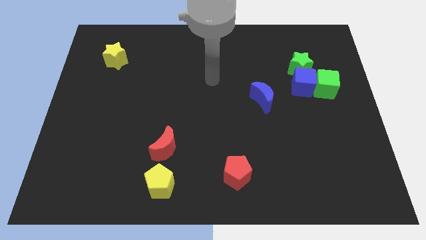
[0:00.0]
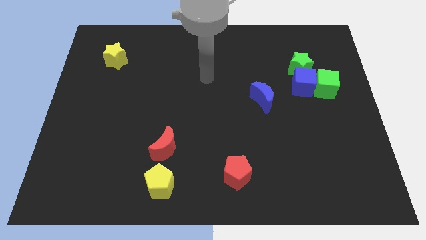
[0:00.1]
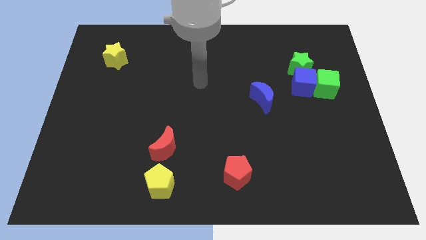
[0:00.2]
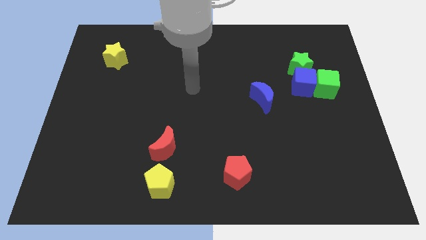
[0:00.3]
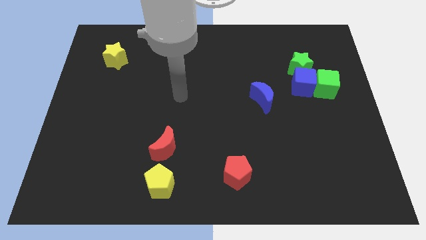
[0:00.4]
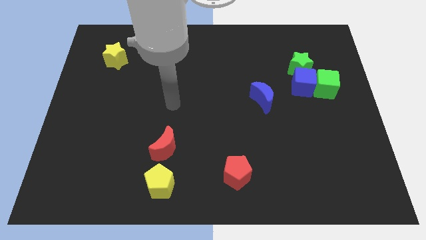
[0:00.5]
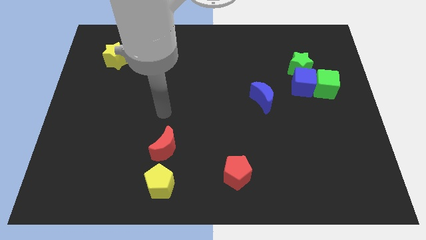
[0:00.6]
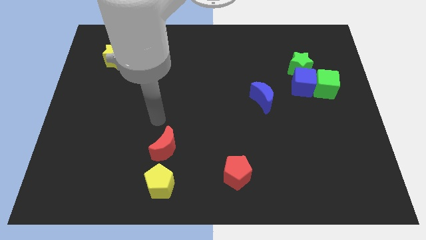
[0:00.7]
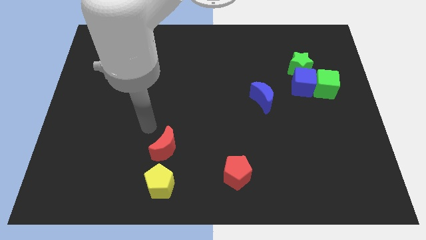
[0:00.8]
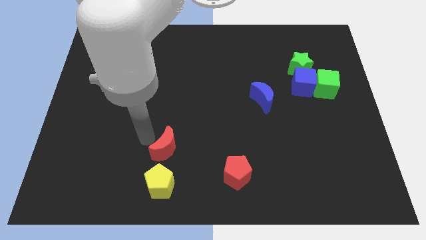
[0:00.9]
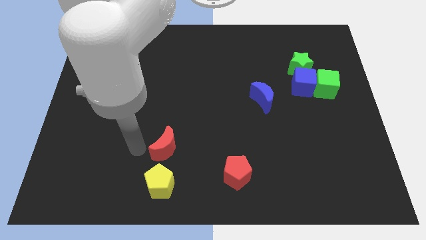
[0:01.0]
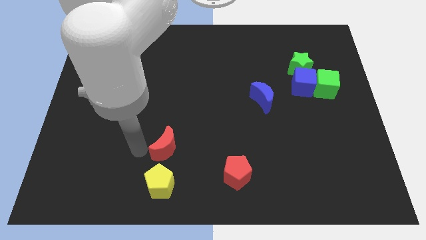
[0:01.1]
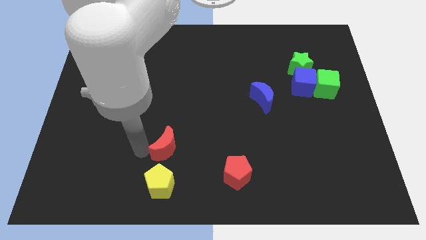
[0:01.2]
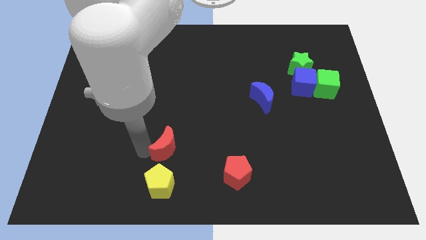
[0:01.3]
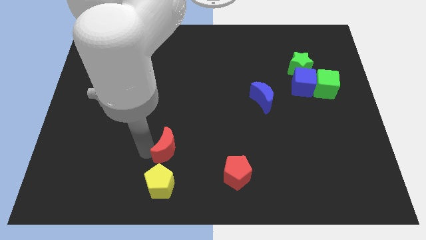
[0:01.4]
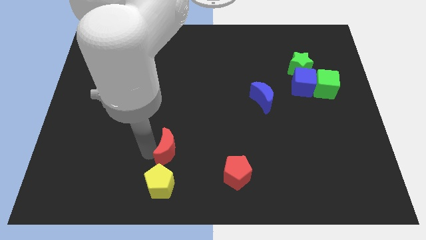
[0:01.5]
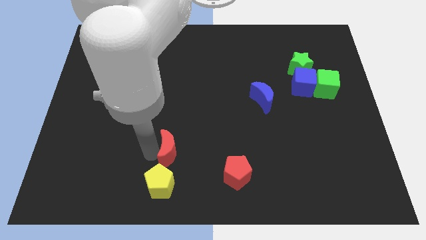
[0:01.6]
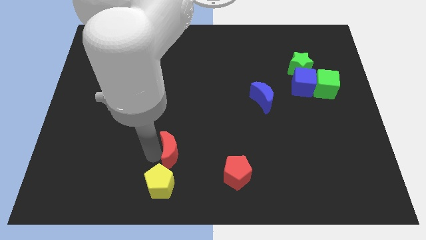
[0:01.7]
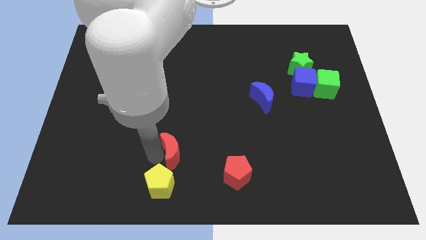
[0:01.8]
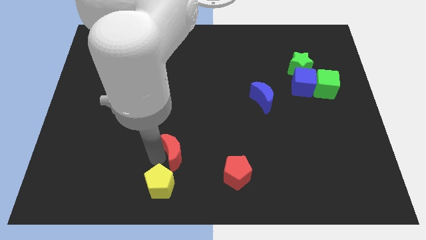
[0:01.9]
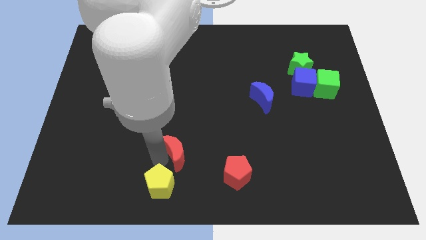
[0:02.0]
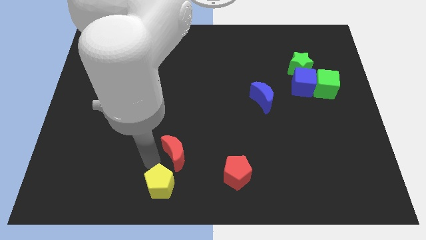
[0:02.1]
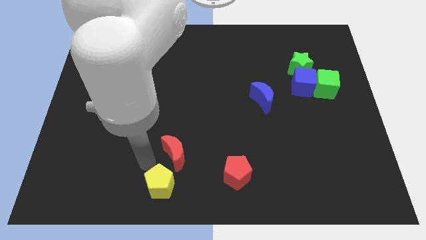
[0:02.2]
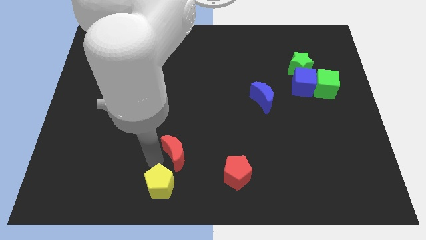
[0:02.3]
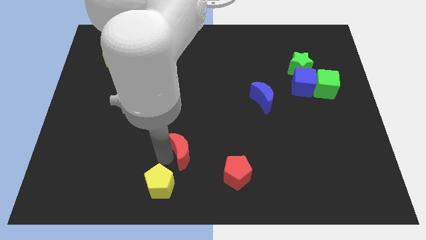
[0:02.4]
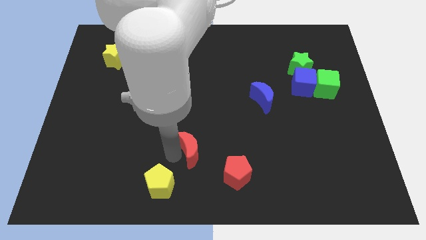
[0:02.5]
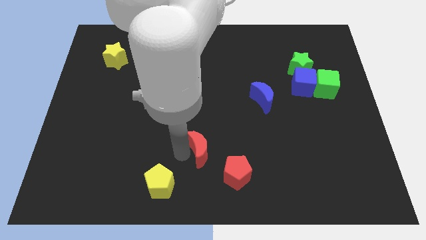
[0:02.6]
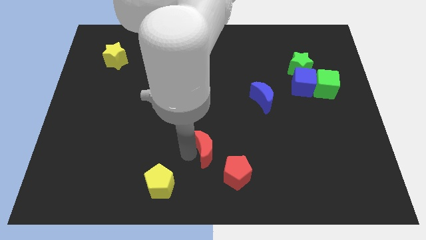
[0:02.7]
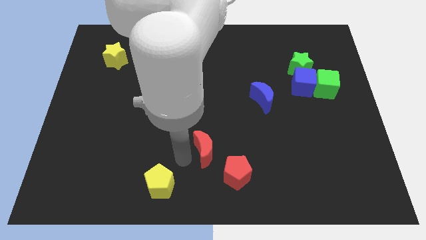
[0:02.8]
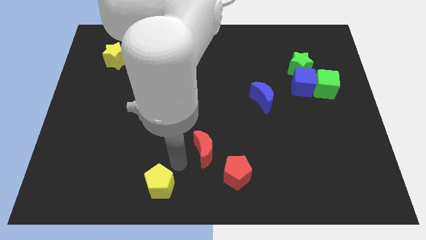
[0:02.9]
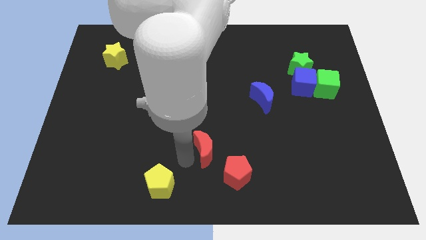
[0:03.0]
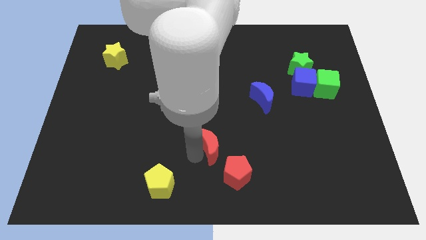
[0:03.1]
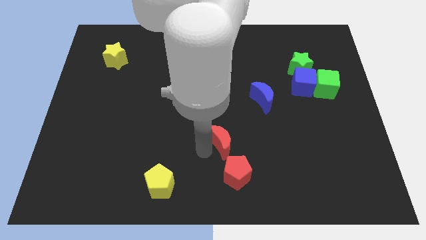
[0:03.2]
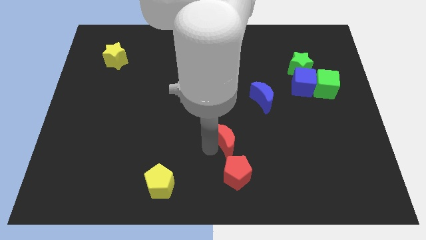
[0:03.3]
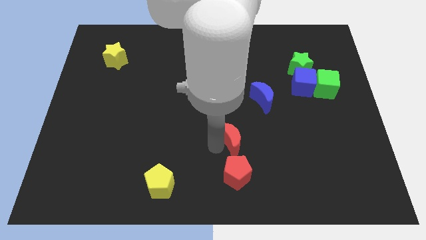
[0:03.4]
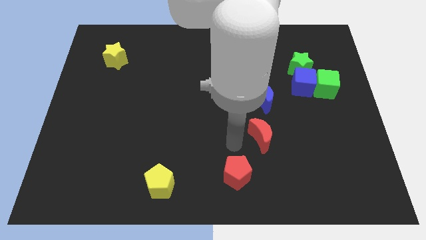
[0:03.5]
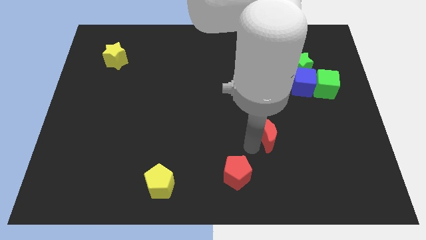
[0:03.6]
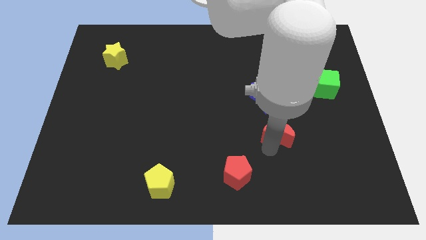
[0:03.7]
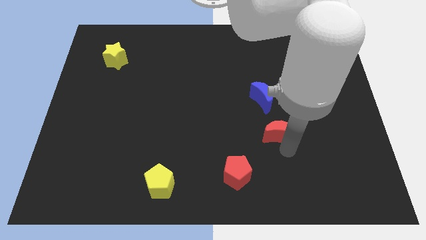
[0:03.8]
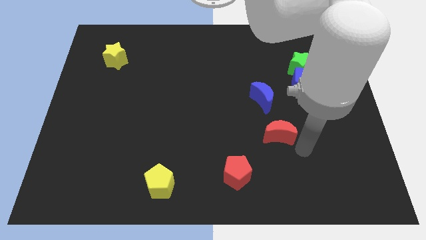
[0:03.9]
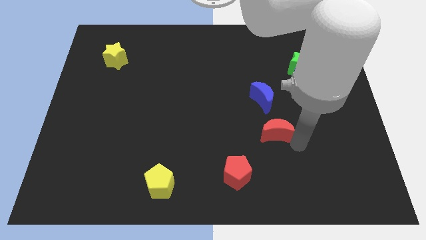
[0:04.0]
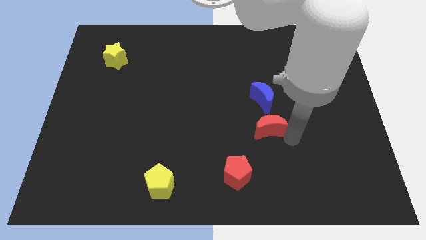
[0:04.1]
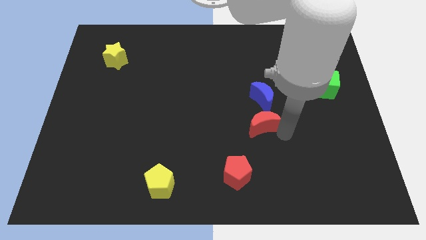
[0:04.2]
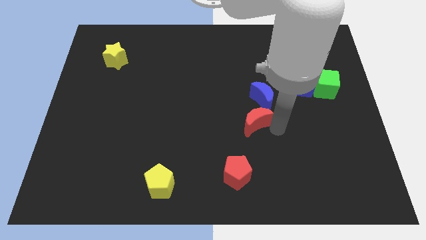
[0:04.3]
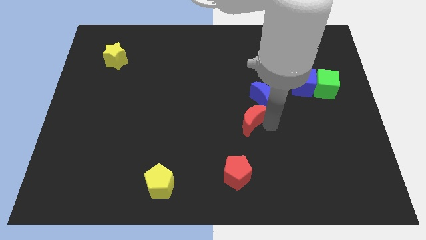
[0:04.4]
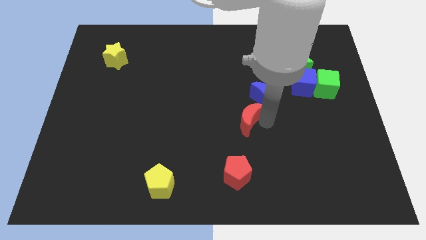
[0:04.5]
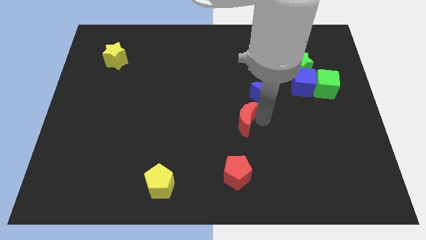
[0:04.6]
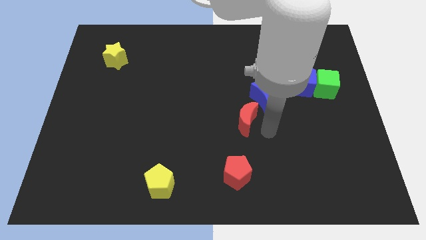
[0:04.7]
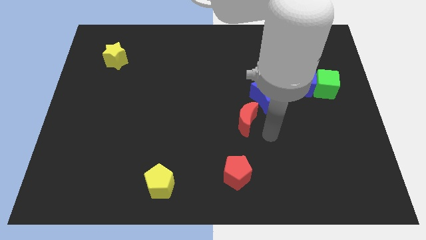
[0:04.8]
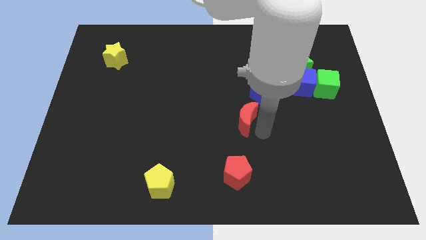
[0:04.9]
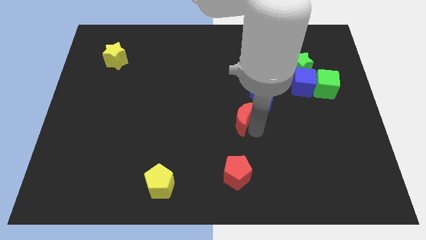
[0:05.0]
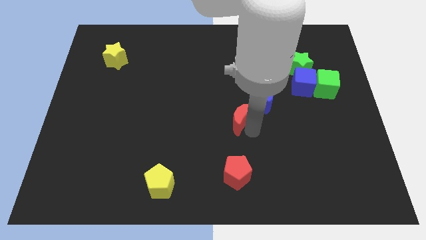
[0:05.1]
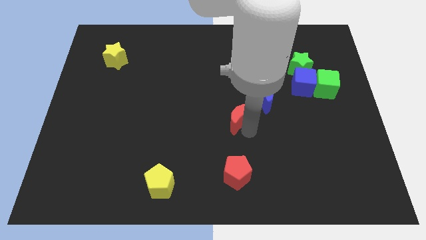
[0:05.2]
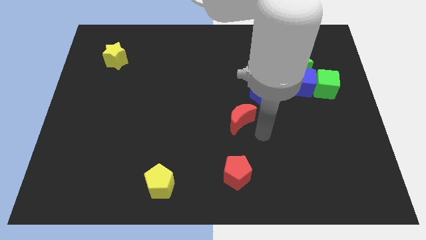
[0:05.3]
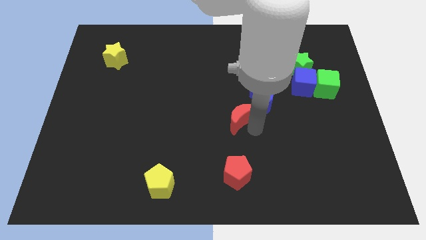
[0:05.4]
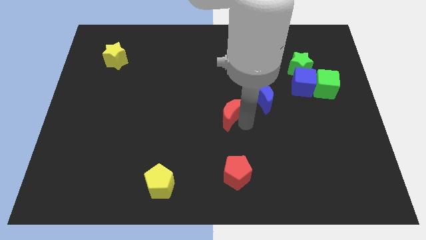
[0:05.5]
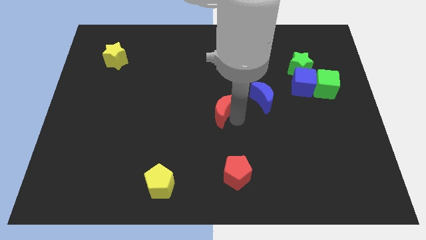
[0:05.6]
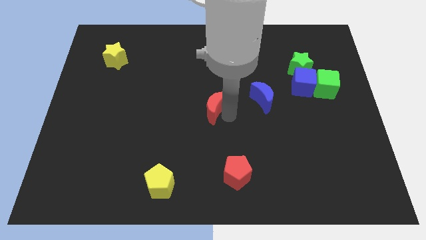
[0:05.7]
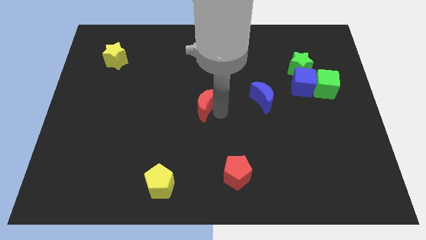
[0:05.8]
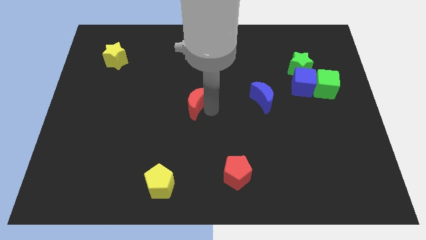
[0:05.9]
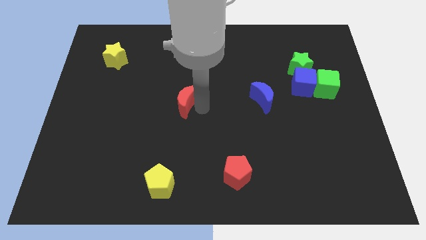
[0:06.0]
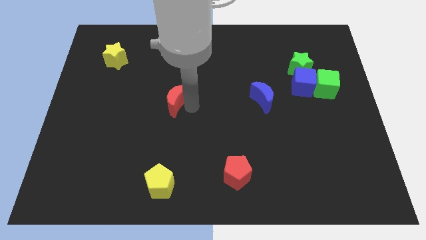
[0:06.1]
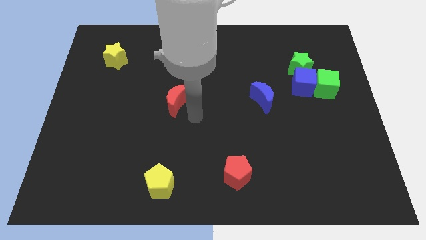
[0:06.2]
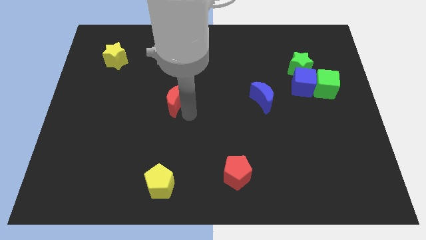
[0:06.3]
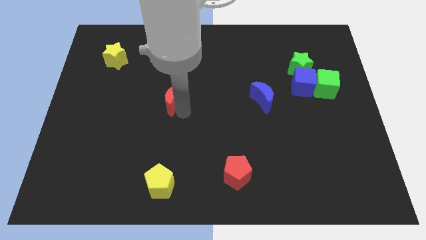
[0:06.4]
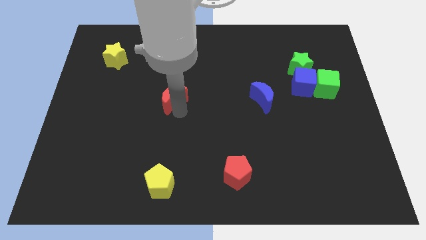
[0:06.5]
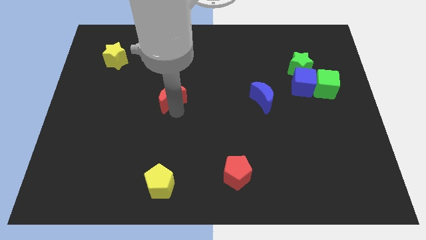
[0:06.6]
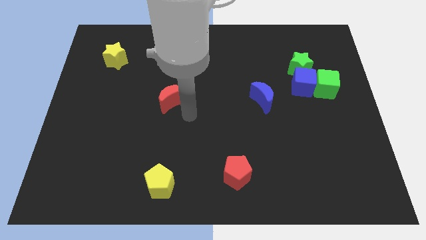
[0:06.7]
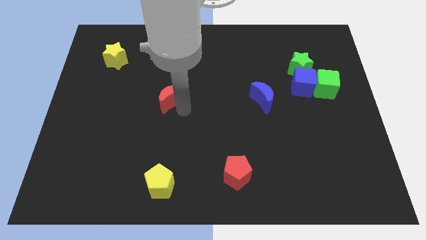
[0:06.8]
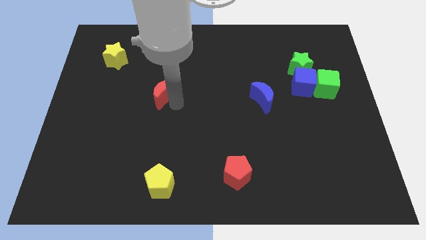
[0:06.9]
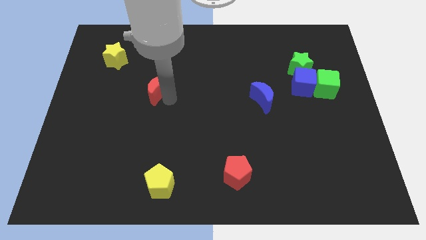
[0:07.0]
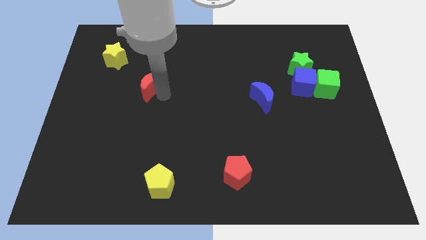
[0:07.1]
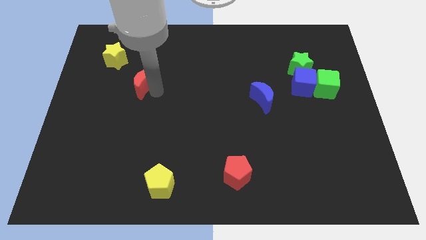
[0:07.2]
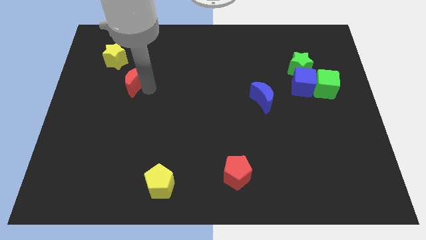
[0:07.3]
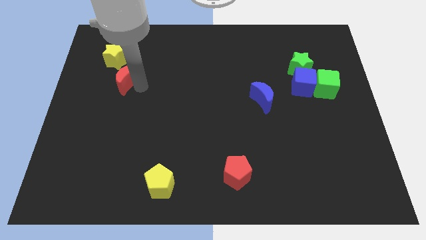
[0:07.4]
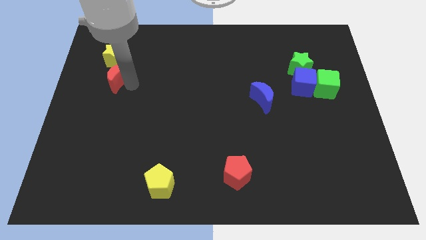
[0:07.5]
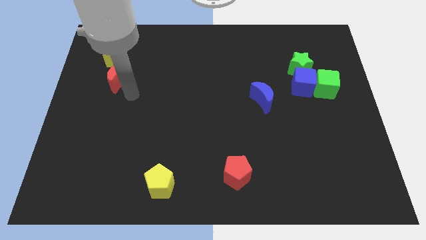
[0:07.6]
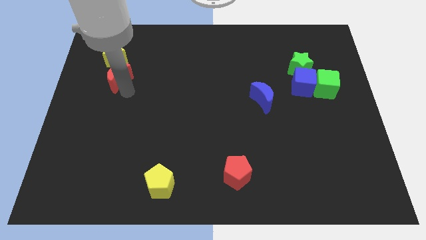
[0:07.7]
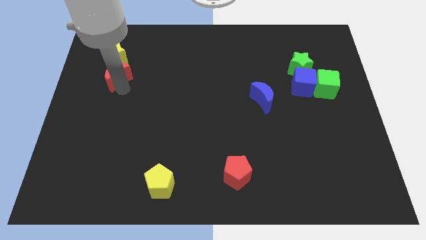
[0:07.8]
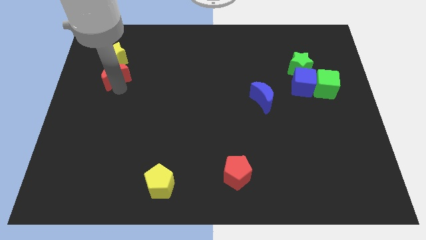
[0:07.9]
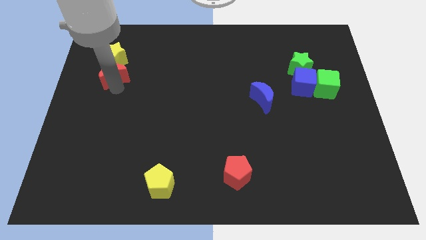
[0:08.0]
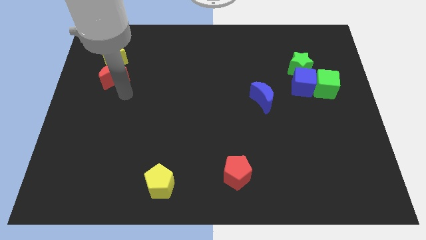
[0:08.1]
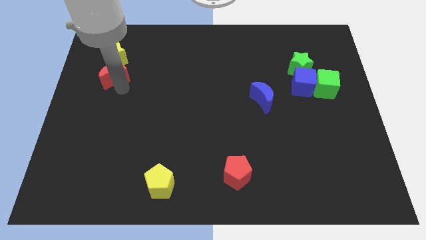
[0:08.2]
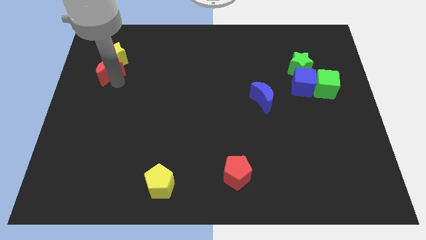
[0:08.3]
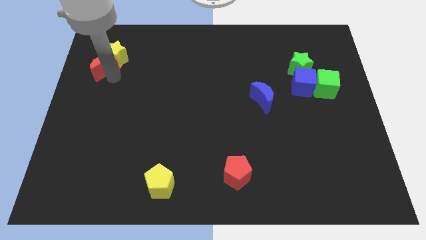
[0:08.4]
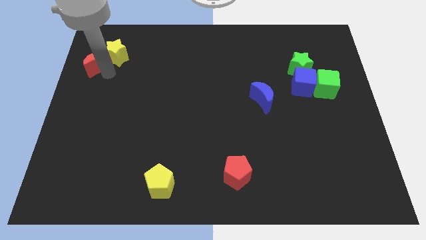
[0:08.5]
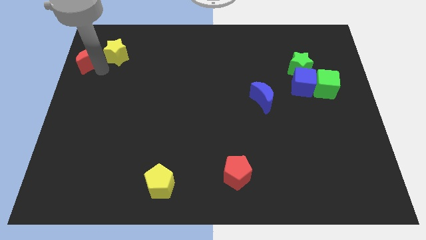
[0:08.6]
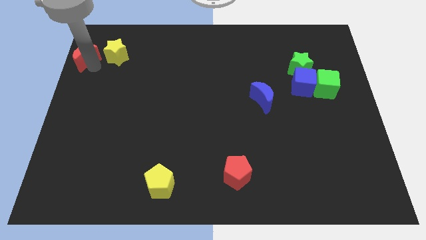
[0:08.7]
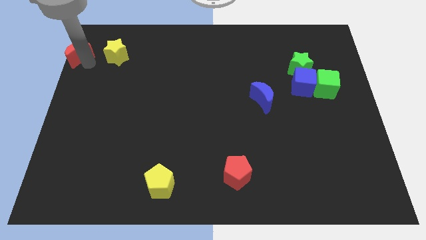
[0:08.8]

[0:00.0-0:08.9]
put the red moon to the top left
